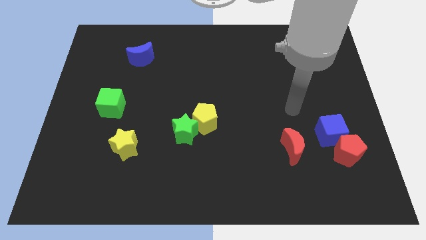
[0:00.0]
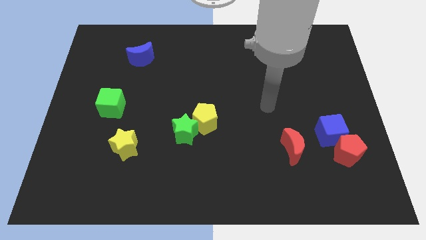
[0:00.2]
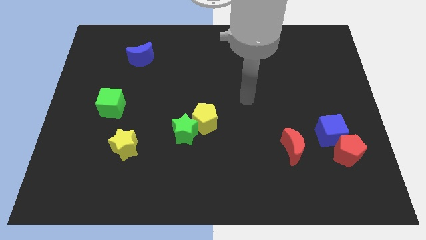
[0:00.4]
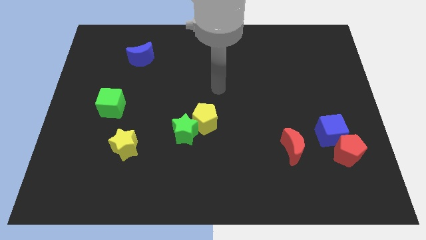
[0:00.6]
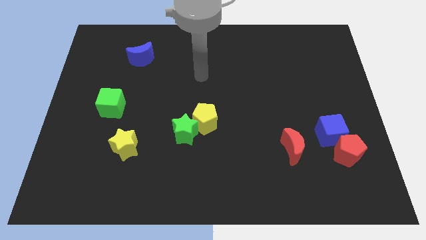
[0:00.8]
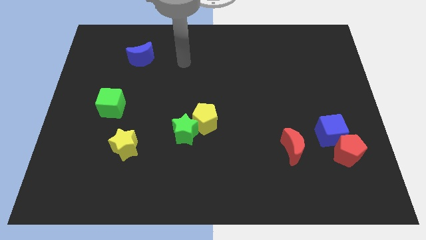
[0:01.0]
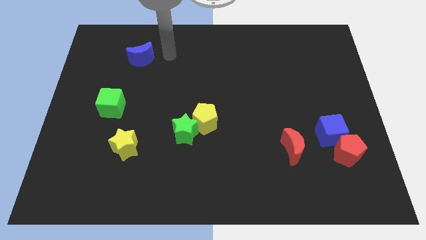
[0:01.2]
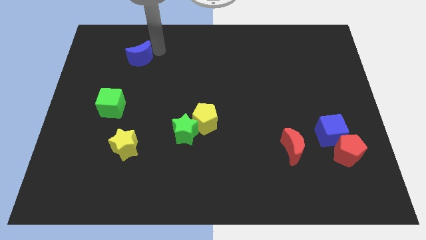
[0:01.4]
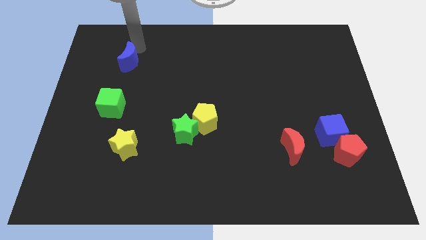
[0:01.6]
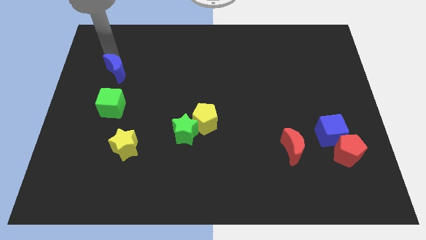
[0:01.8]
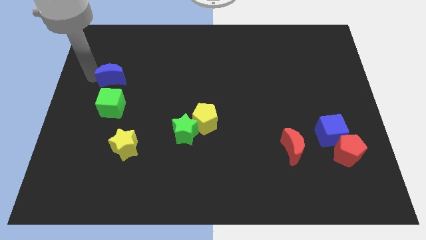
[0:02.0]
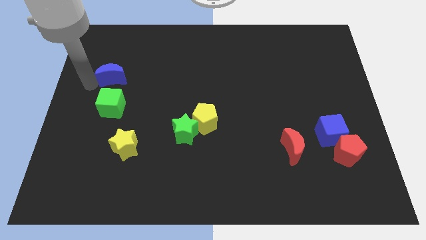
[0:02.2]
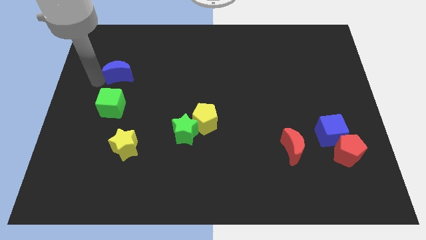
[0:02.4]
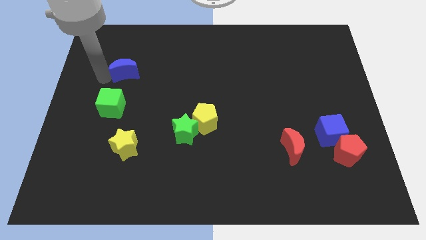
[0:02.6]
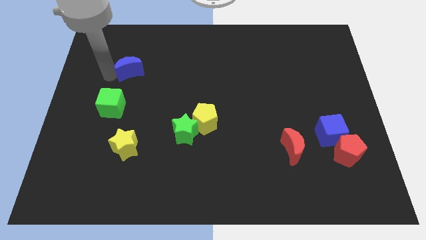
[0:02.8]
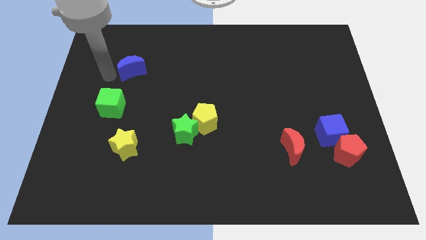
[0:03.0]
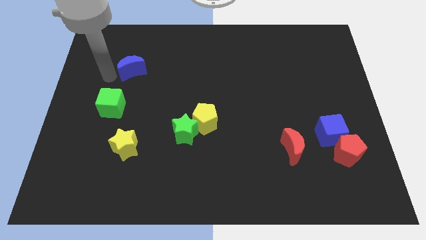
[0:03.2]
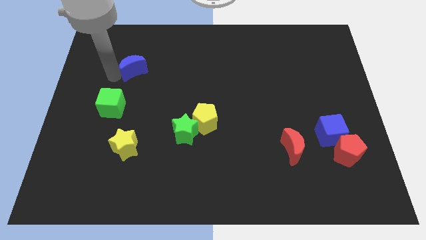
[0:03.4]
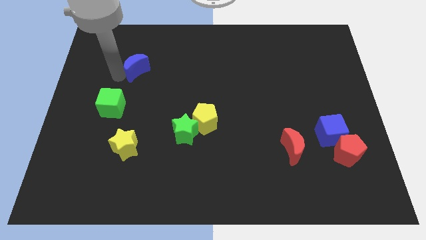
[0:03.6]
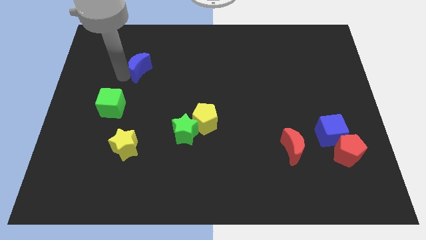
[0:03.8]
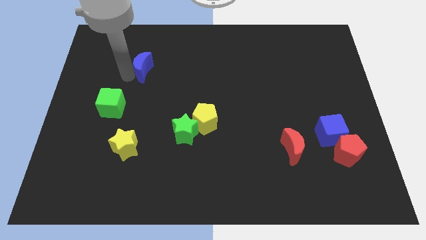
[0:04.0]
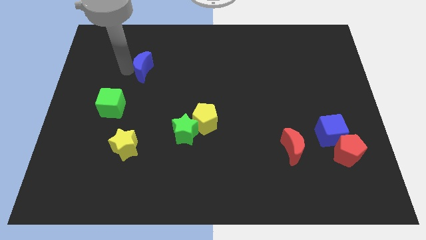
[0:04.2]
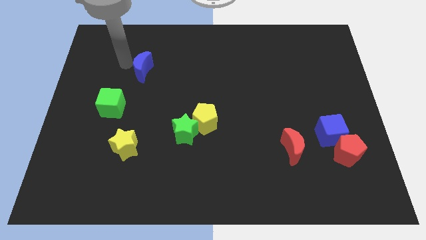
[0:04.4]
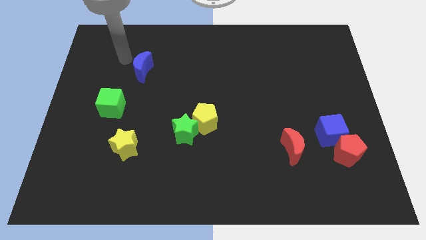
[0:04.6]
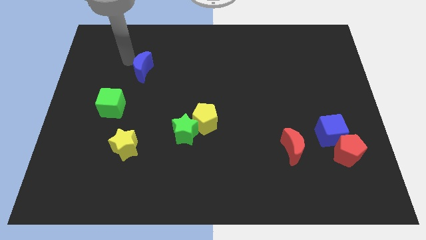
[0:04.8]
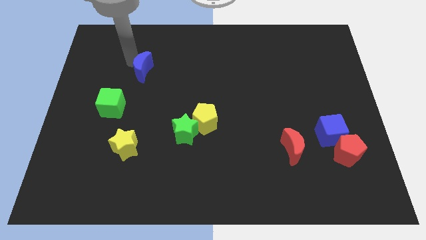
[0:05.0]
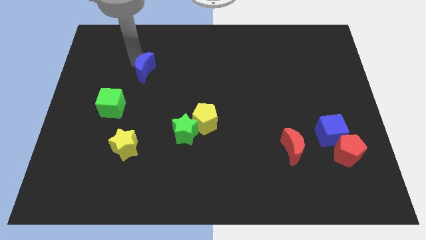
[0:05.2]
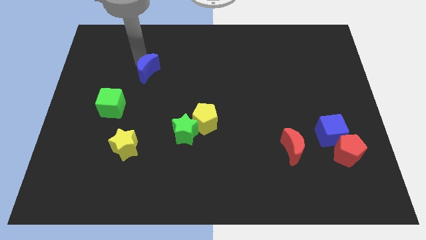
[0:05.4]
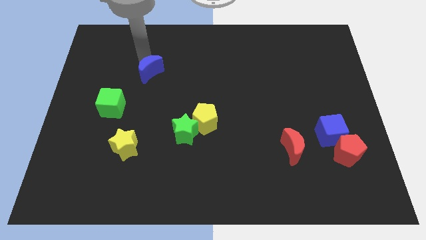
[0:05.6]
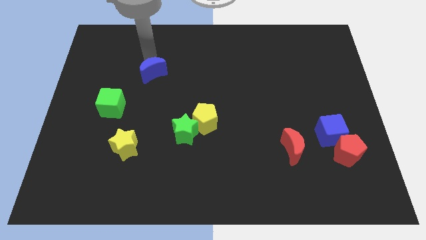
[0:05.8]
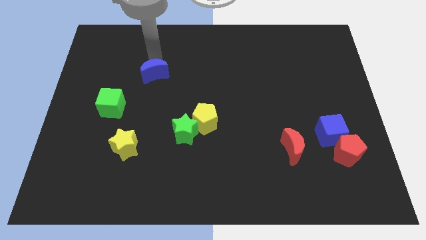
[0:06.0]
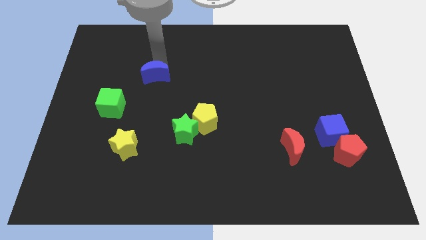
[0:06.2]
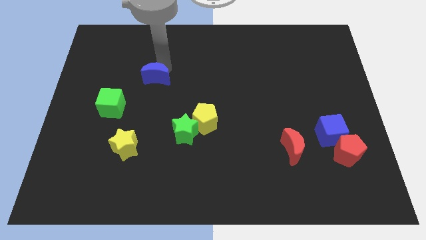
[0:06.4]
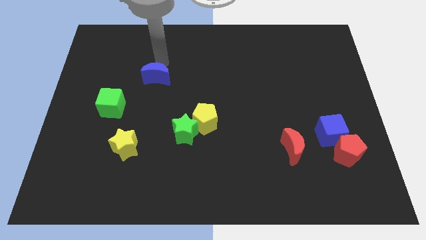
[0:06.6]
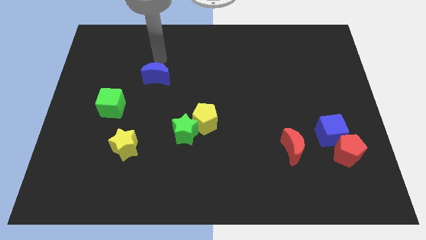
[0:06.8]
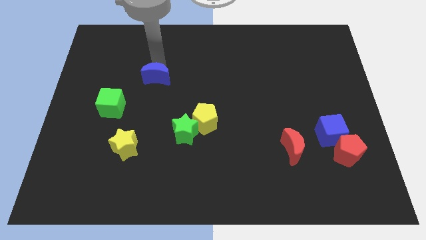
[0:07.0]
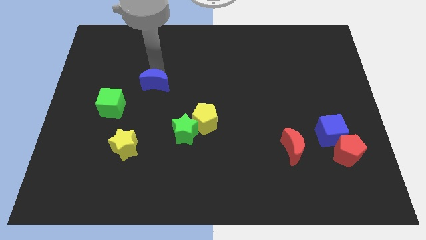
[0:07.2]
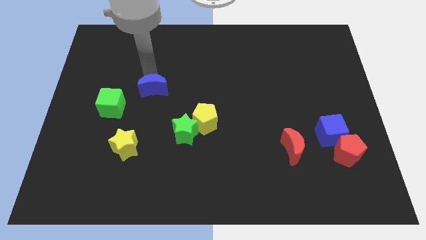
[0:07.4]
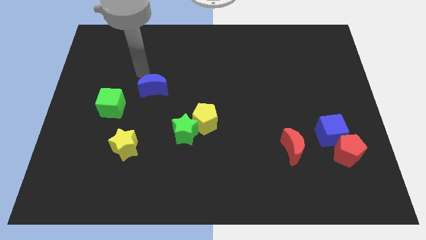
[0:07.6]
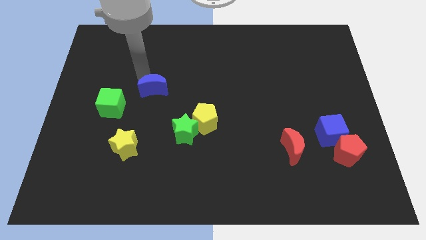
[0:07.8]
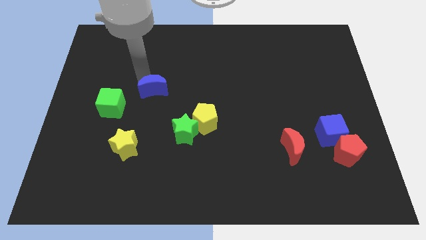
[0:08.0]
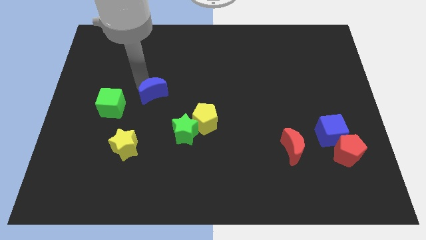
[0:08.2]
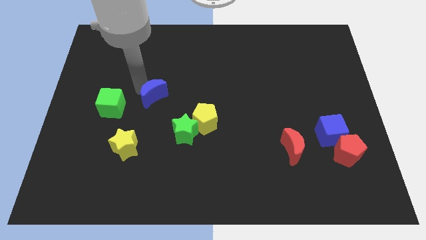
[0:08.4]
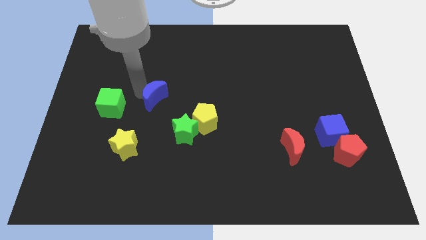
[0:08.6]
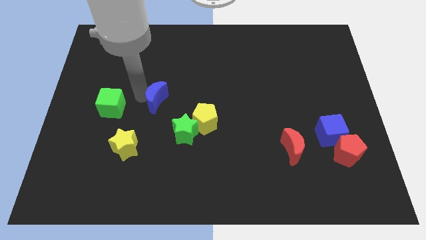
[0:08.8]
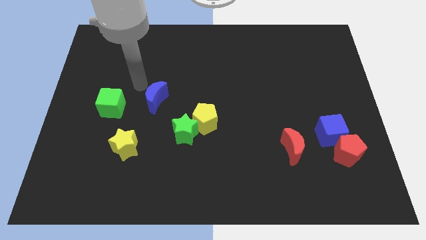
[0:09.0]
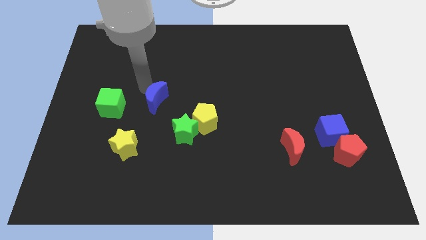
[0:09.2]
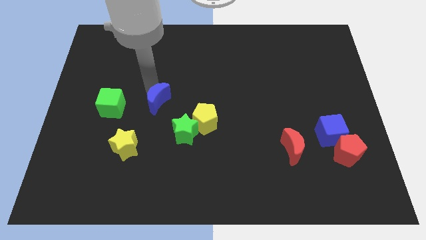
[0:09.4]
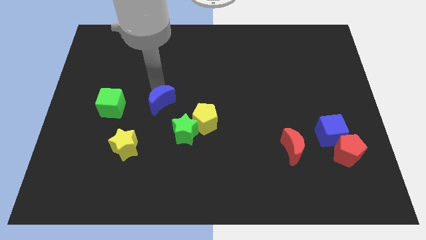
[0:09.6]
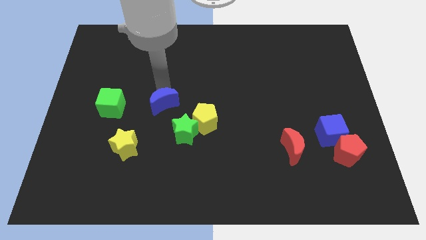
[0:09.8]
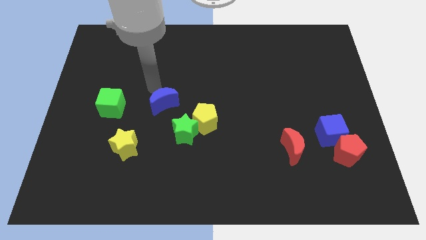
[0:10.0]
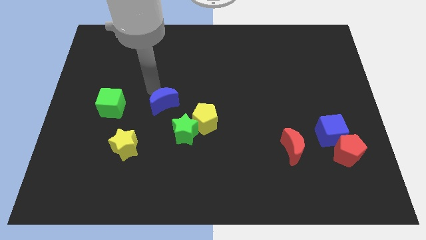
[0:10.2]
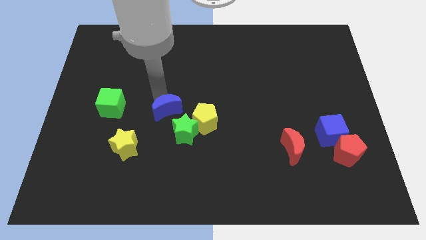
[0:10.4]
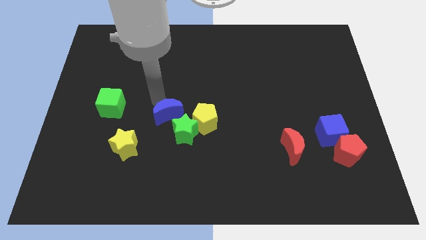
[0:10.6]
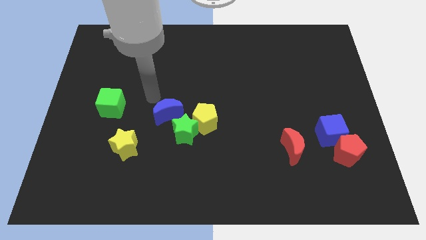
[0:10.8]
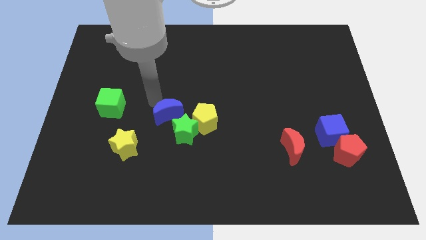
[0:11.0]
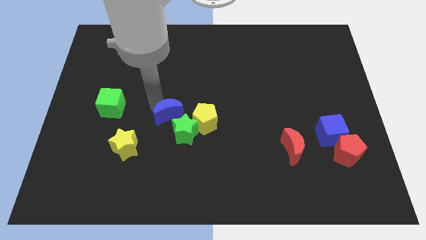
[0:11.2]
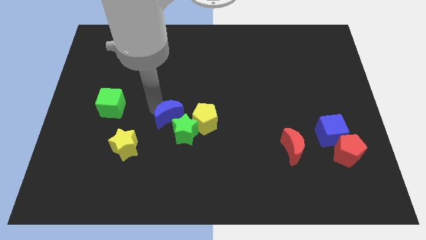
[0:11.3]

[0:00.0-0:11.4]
slide the blue moon to the green star

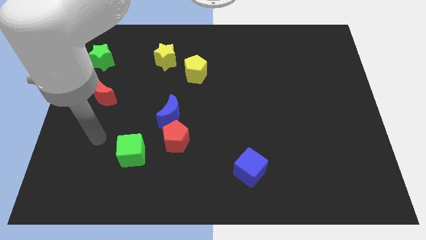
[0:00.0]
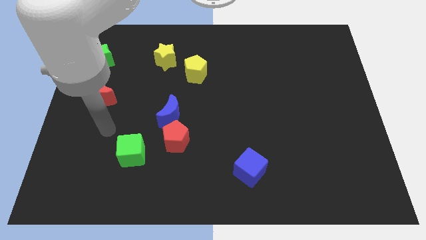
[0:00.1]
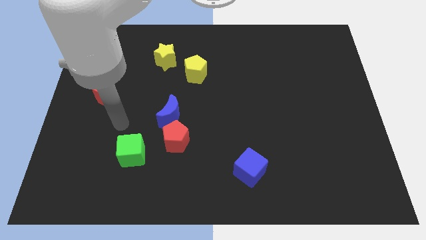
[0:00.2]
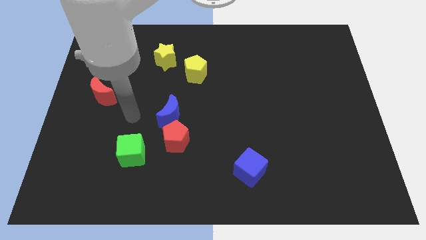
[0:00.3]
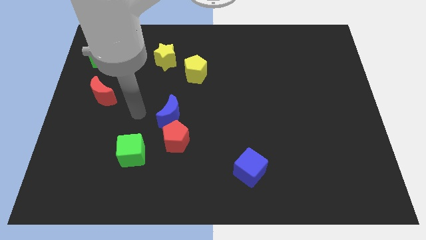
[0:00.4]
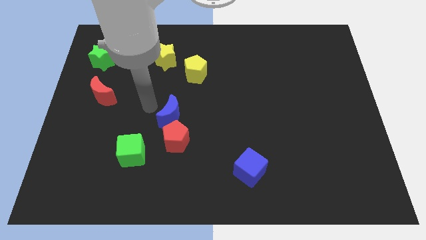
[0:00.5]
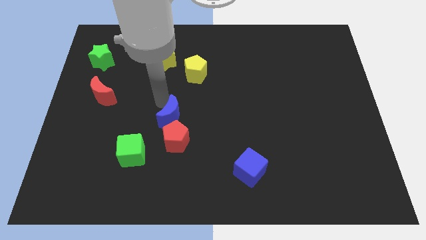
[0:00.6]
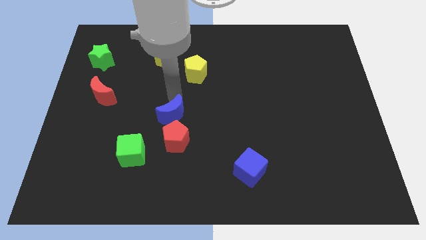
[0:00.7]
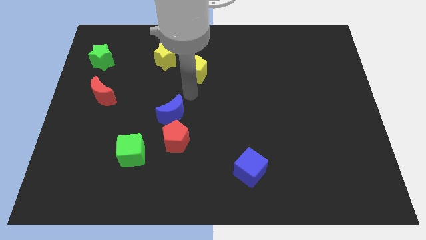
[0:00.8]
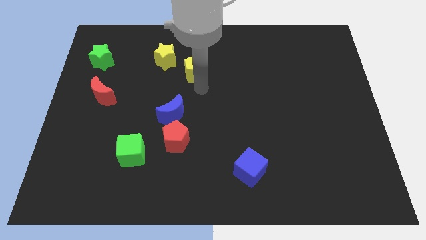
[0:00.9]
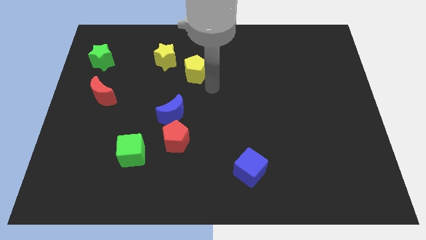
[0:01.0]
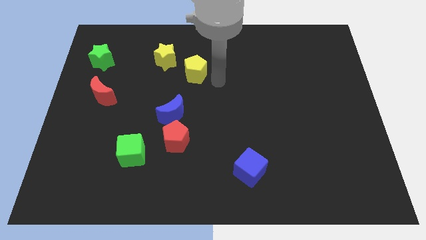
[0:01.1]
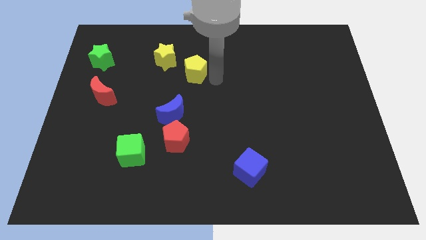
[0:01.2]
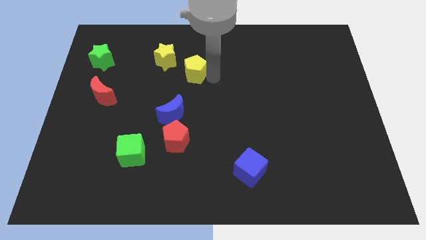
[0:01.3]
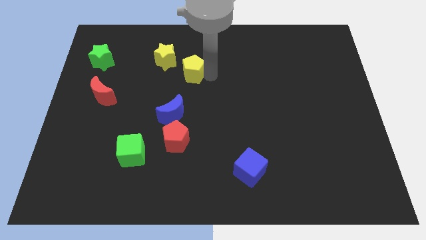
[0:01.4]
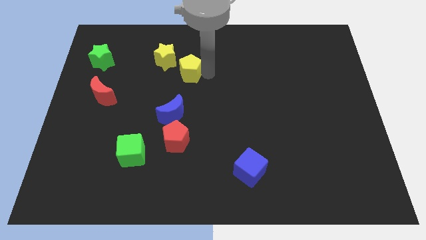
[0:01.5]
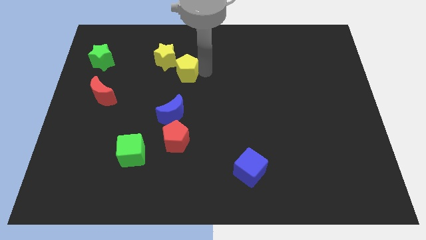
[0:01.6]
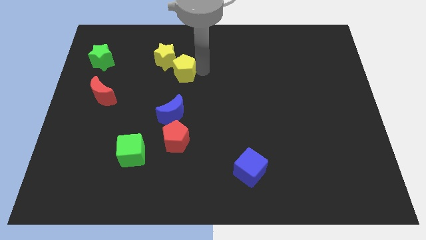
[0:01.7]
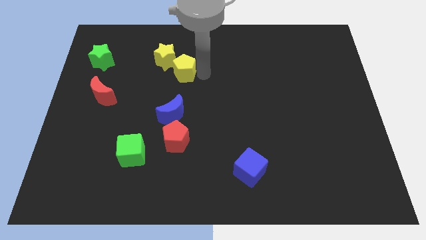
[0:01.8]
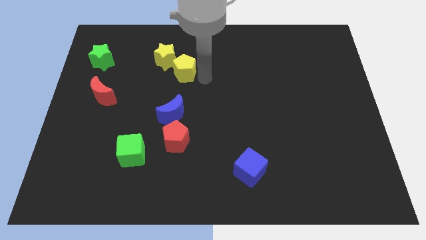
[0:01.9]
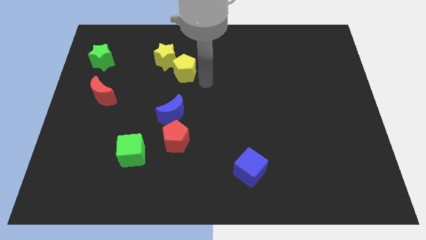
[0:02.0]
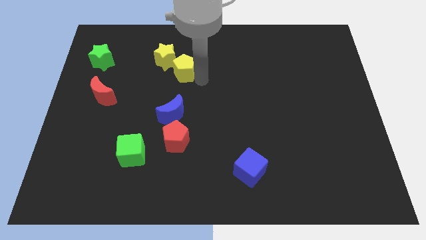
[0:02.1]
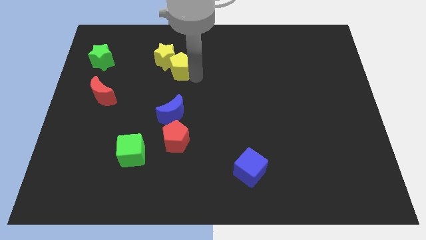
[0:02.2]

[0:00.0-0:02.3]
move the yellow pentagon towards the yellow star
